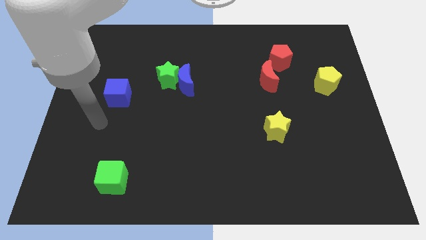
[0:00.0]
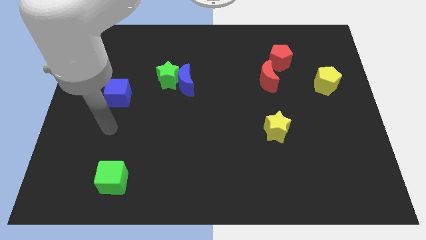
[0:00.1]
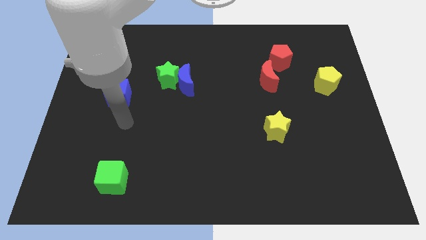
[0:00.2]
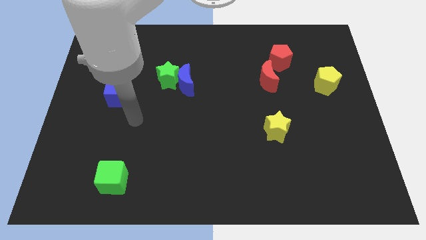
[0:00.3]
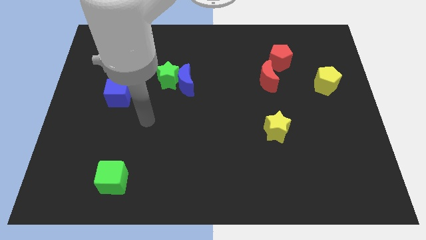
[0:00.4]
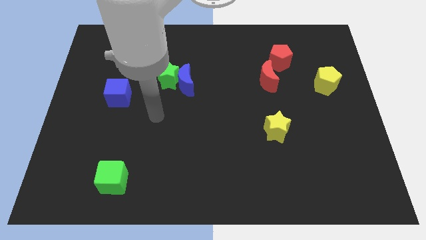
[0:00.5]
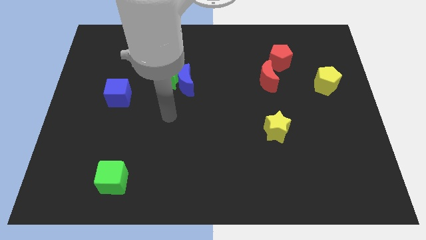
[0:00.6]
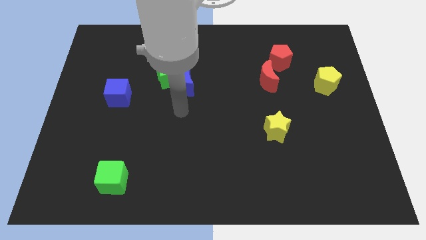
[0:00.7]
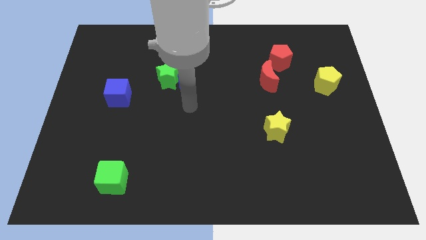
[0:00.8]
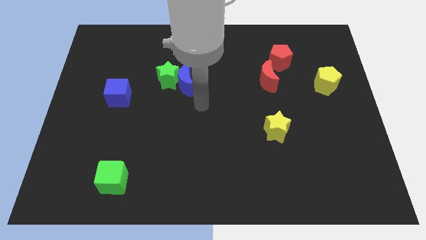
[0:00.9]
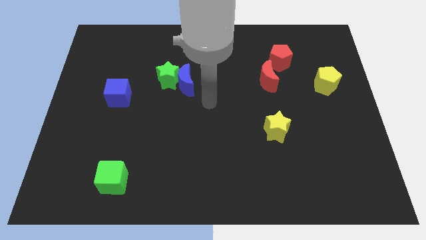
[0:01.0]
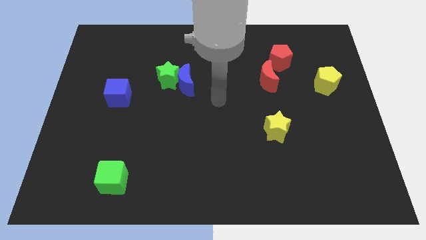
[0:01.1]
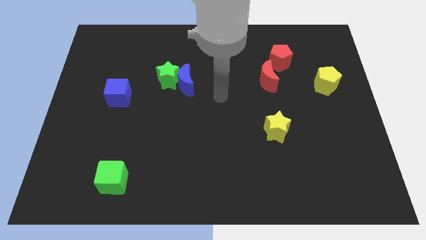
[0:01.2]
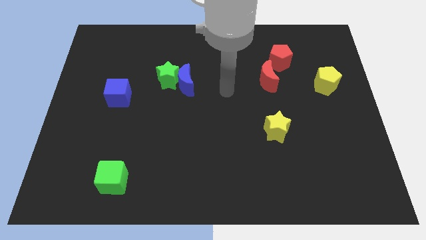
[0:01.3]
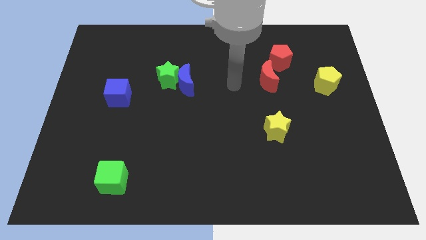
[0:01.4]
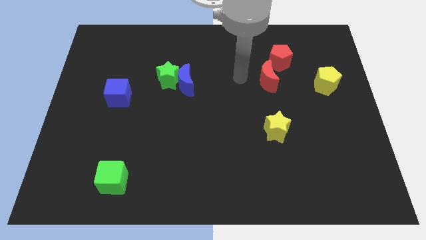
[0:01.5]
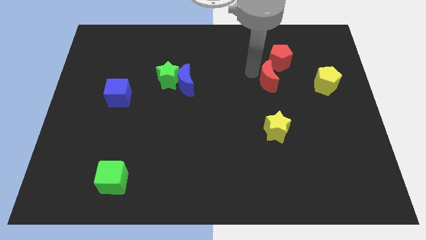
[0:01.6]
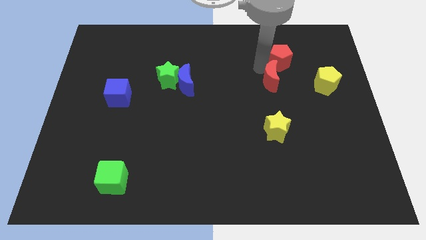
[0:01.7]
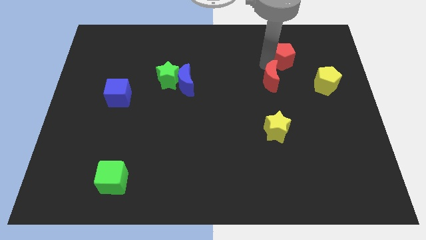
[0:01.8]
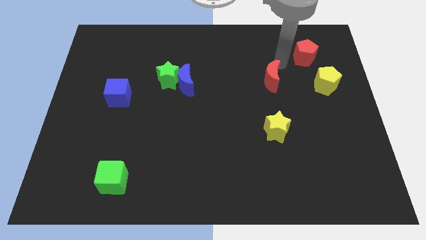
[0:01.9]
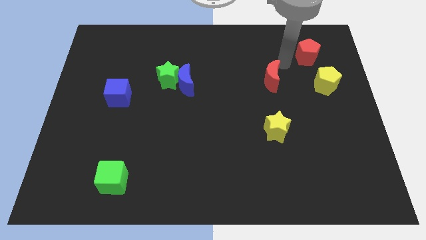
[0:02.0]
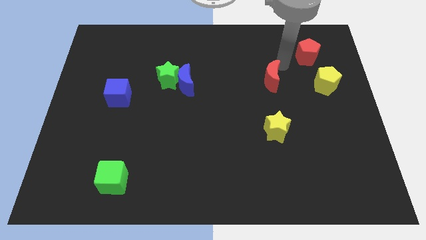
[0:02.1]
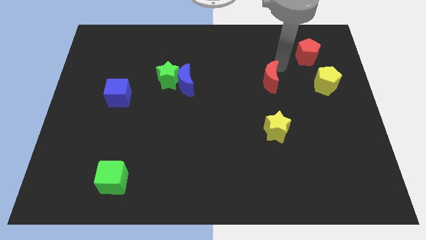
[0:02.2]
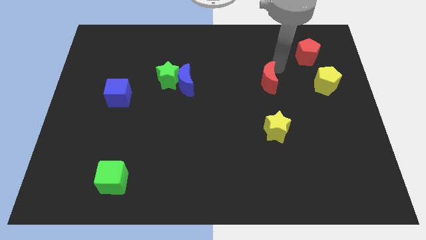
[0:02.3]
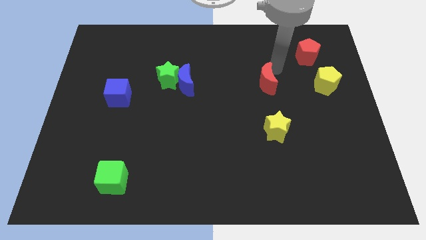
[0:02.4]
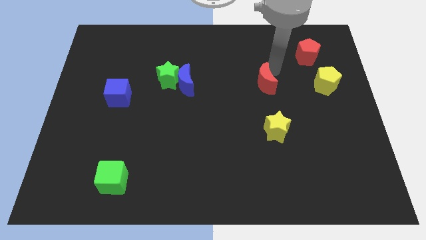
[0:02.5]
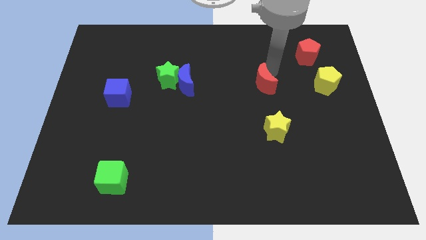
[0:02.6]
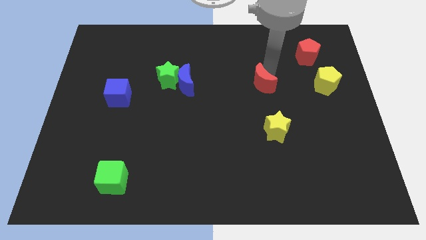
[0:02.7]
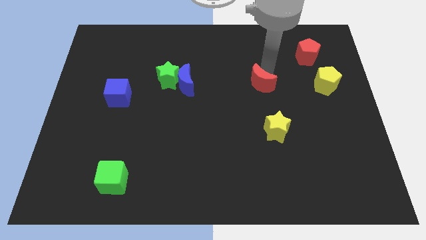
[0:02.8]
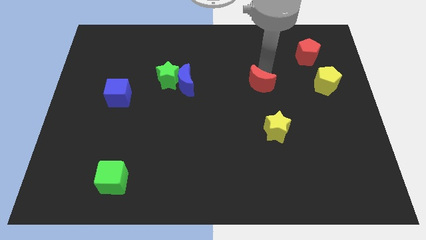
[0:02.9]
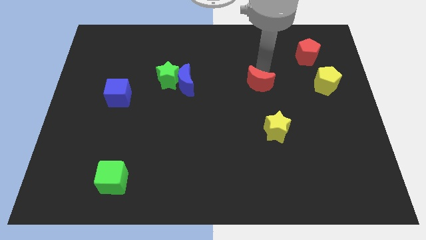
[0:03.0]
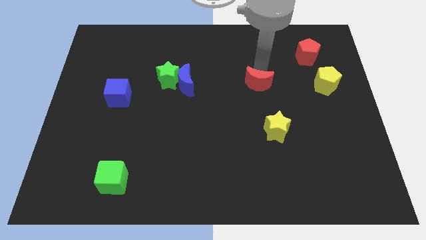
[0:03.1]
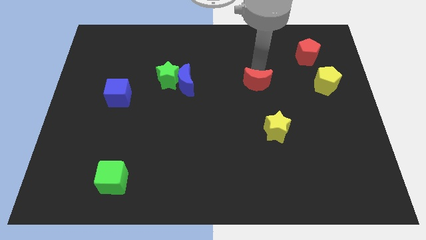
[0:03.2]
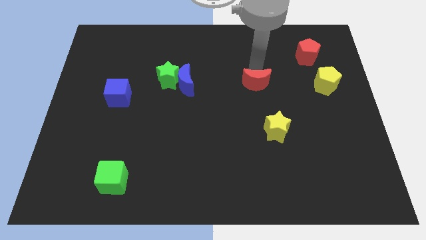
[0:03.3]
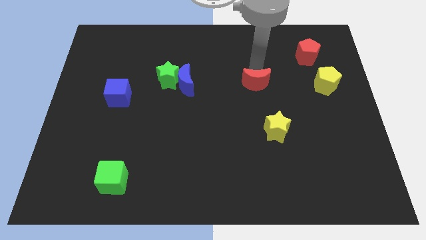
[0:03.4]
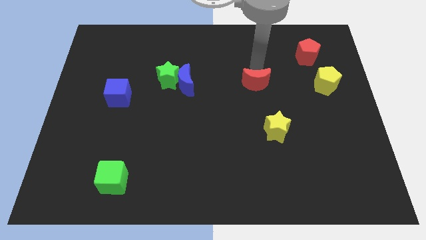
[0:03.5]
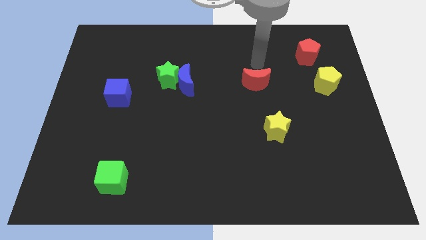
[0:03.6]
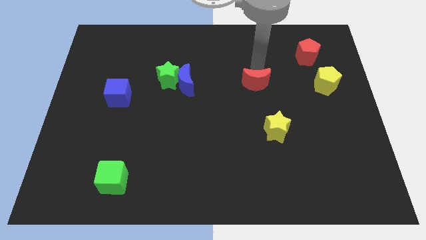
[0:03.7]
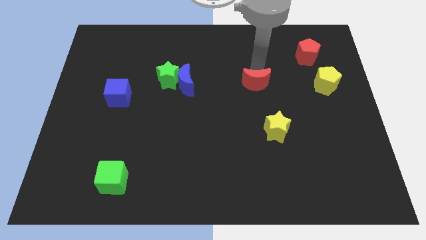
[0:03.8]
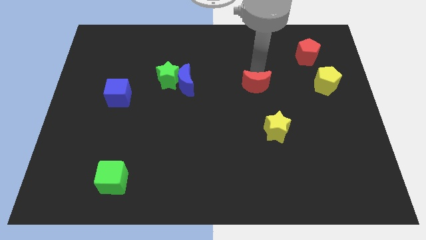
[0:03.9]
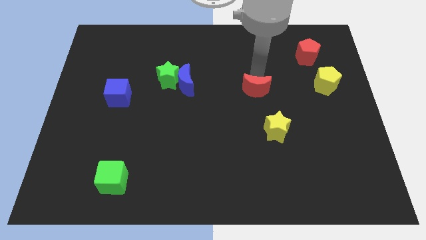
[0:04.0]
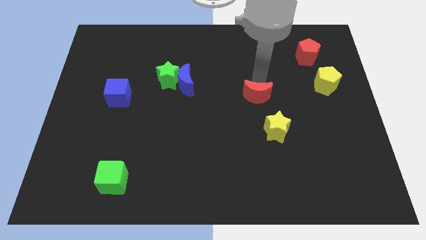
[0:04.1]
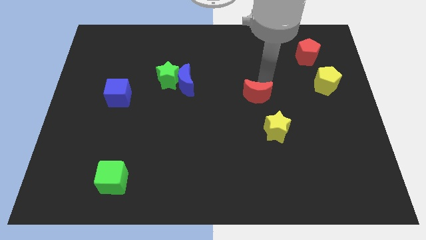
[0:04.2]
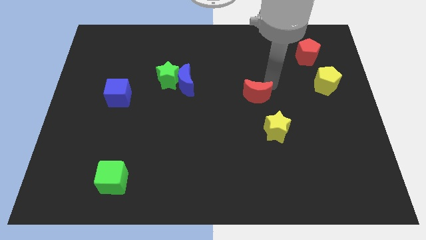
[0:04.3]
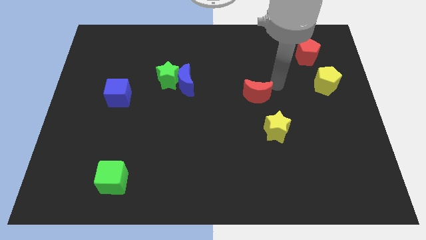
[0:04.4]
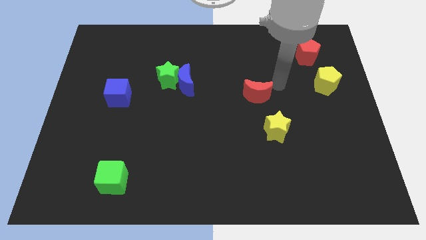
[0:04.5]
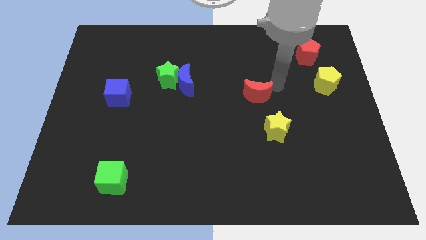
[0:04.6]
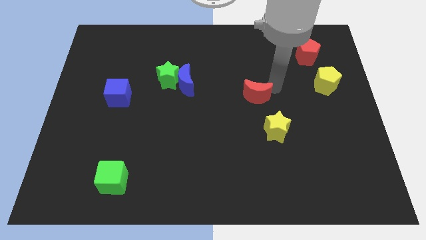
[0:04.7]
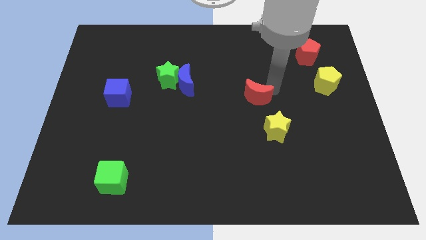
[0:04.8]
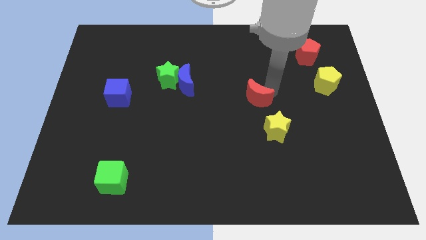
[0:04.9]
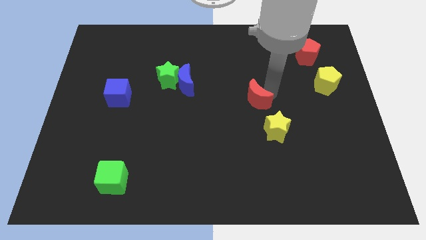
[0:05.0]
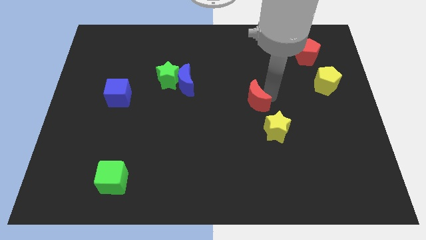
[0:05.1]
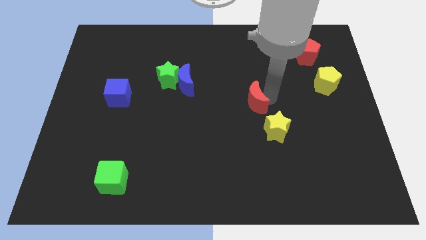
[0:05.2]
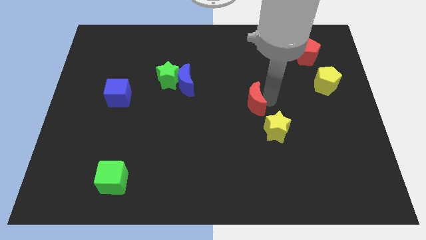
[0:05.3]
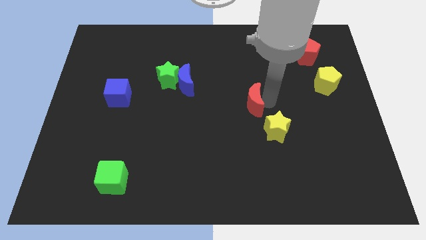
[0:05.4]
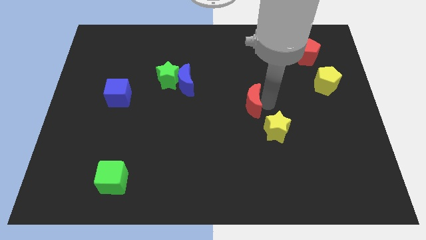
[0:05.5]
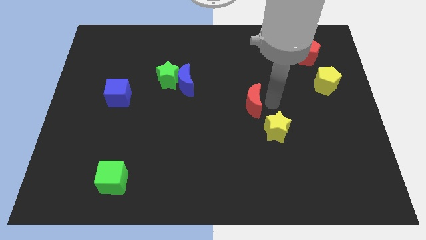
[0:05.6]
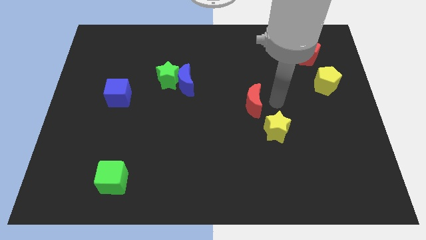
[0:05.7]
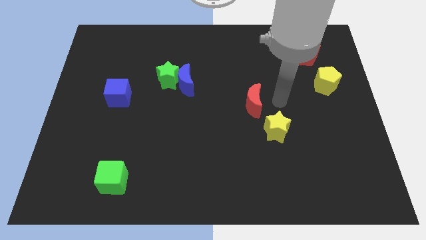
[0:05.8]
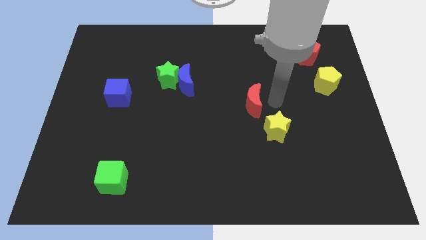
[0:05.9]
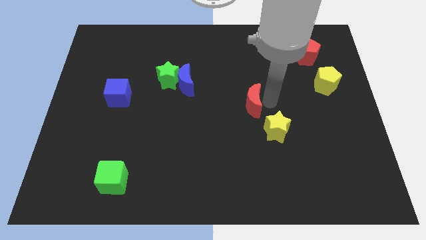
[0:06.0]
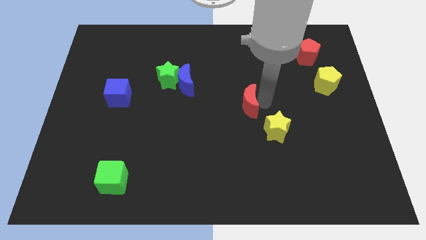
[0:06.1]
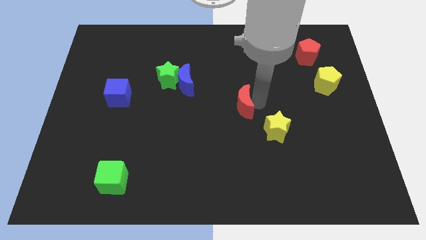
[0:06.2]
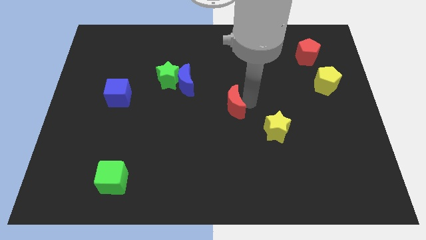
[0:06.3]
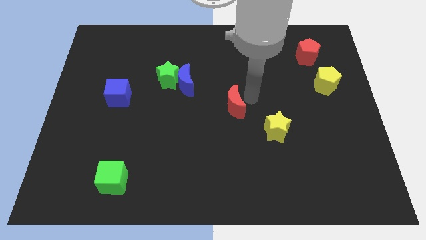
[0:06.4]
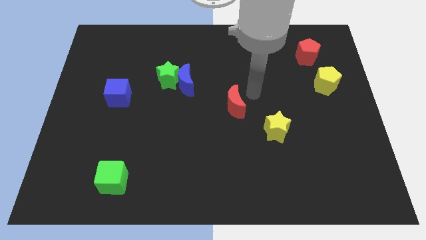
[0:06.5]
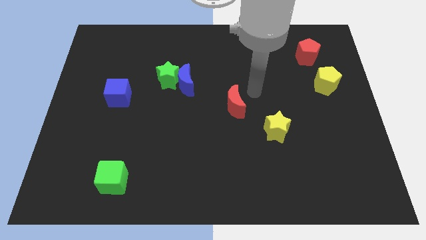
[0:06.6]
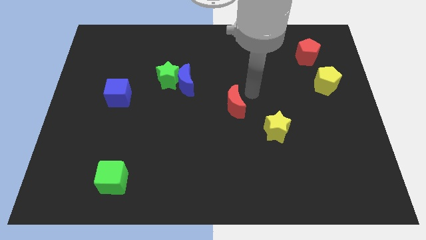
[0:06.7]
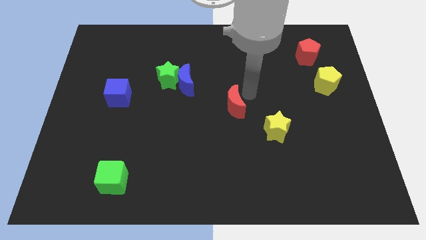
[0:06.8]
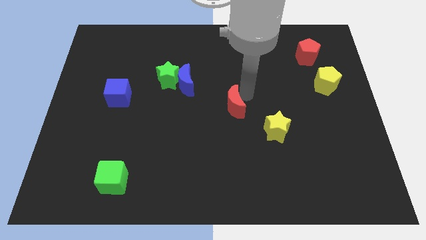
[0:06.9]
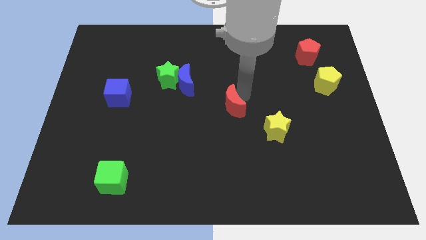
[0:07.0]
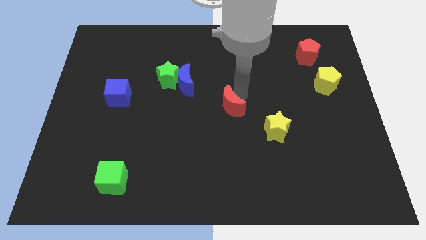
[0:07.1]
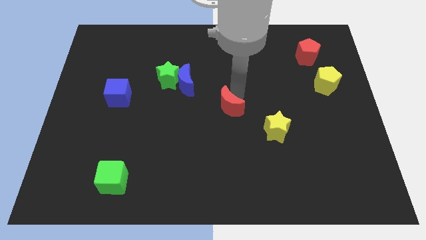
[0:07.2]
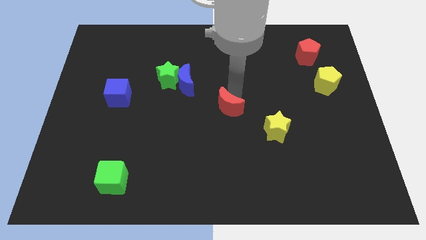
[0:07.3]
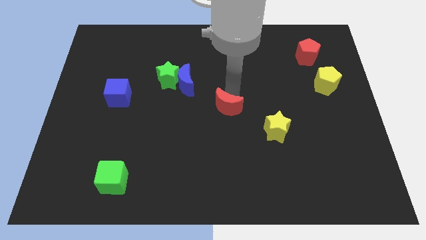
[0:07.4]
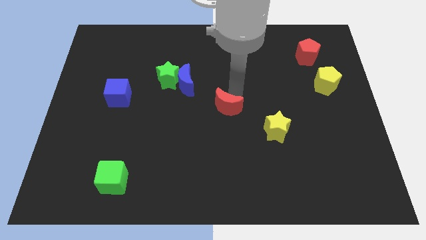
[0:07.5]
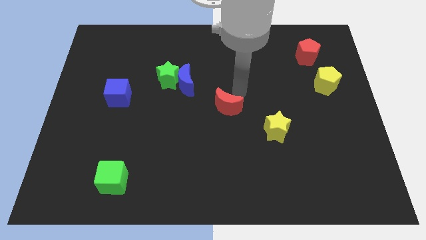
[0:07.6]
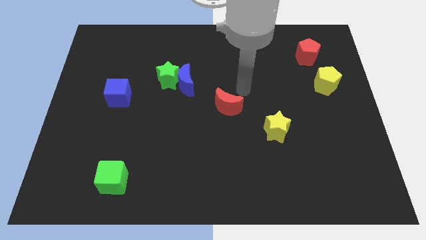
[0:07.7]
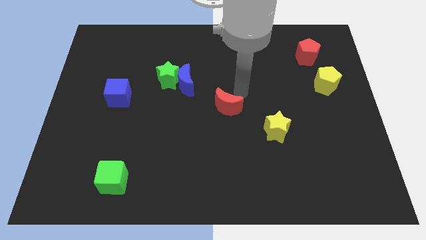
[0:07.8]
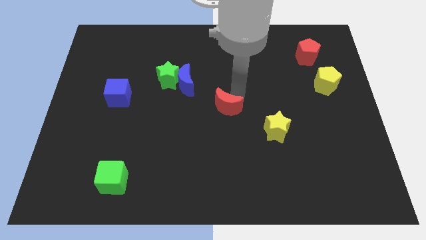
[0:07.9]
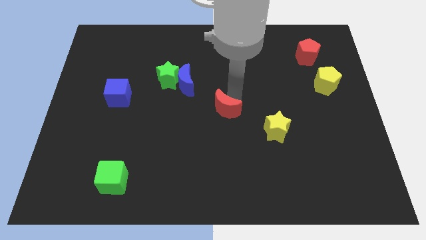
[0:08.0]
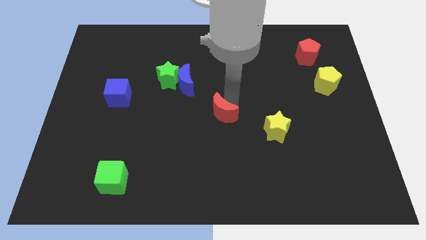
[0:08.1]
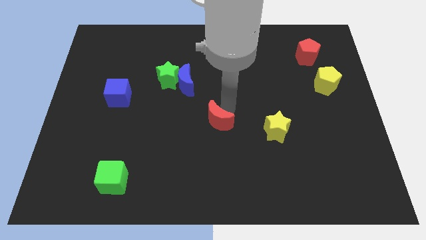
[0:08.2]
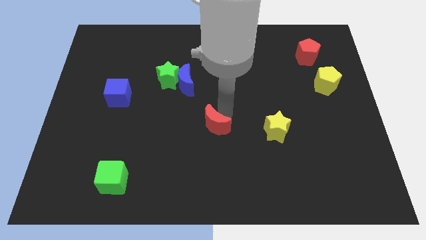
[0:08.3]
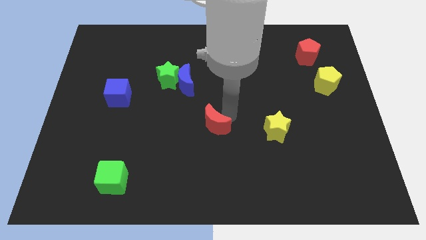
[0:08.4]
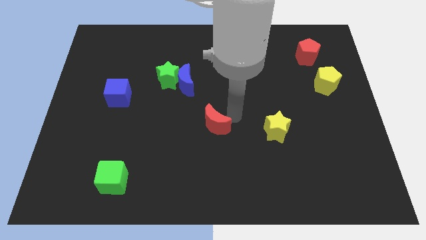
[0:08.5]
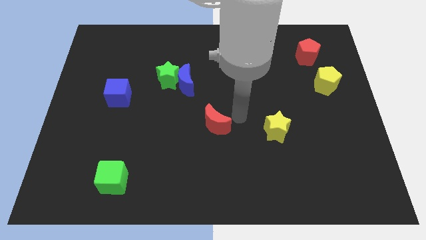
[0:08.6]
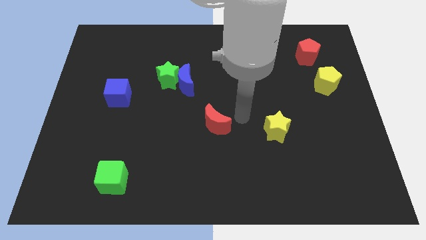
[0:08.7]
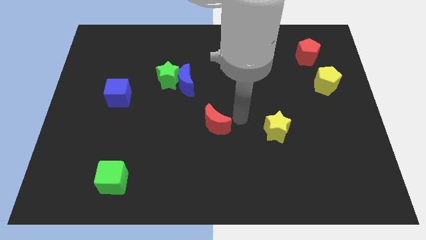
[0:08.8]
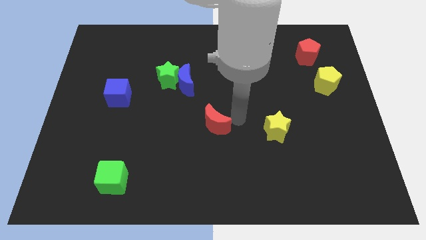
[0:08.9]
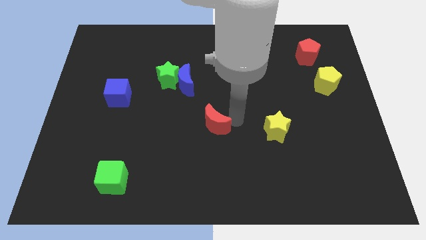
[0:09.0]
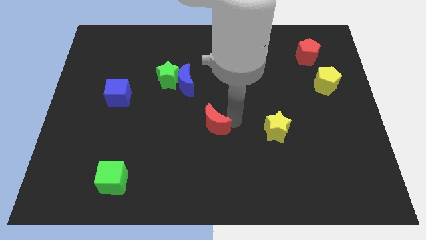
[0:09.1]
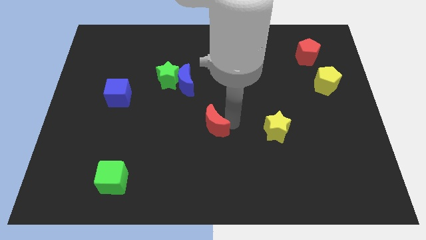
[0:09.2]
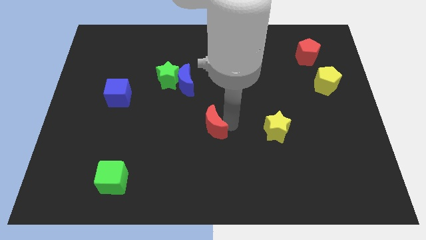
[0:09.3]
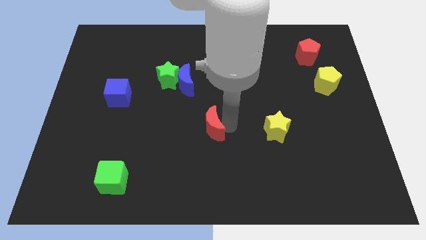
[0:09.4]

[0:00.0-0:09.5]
push the red moon diagonally down and left
